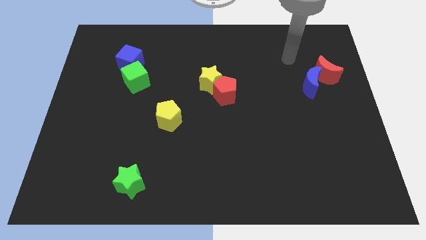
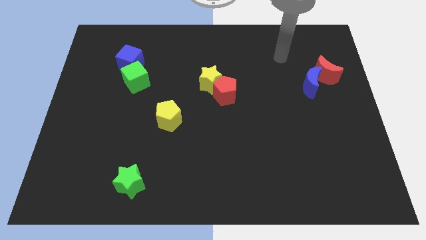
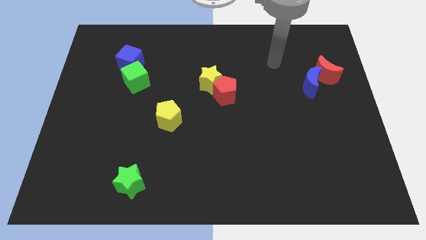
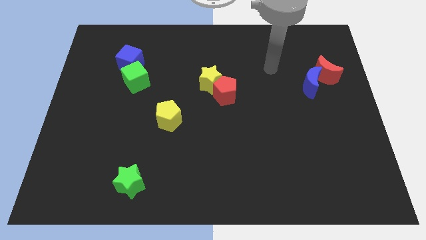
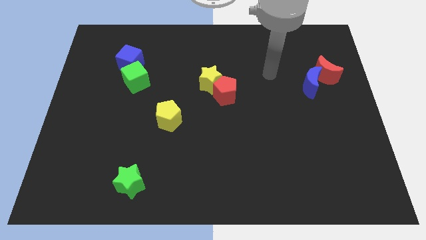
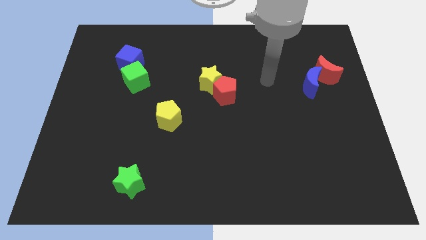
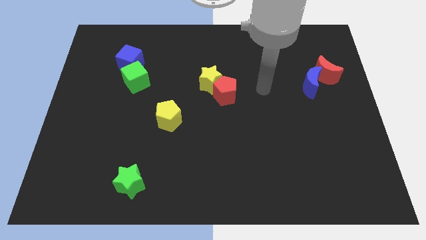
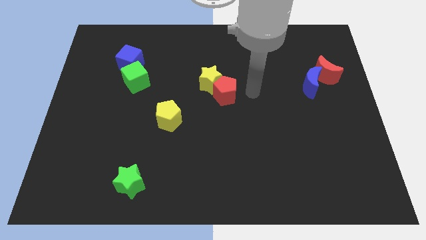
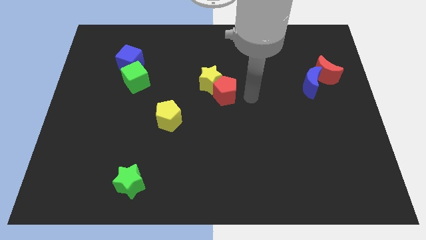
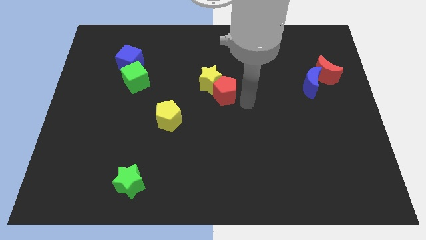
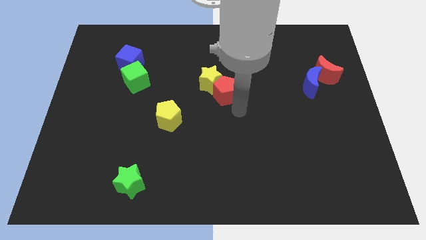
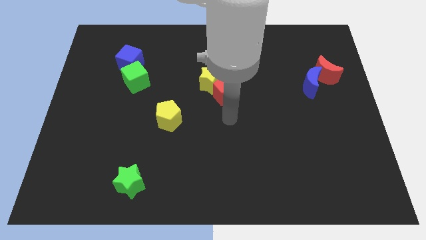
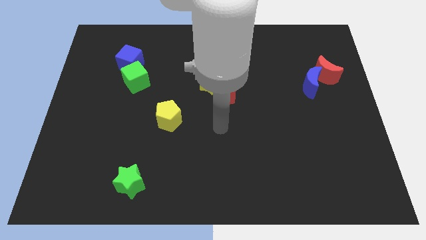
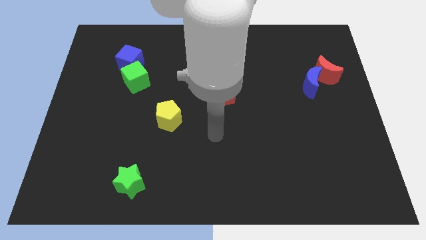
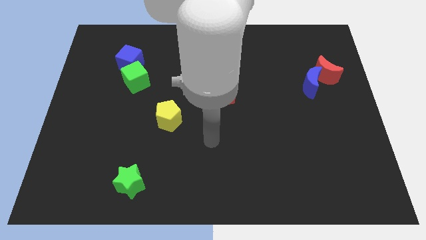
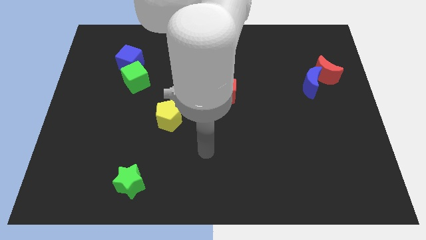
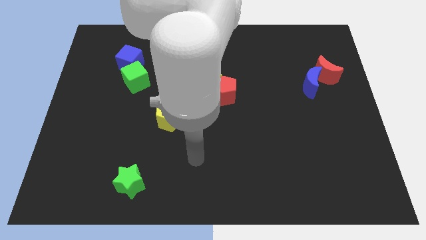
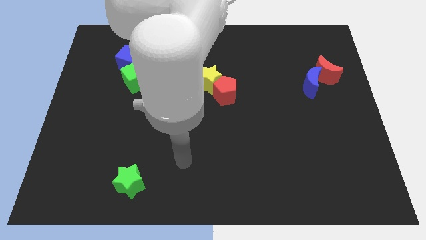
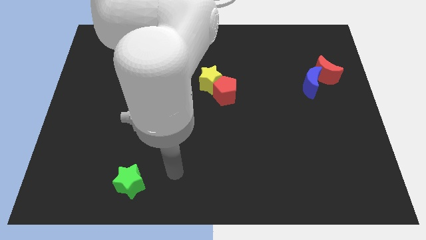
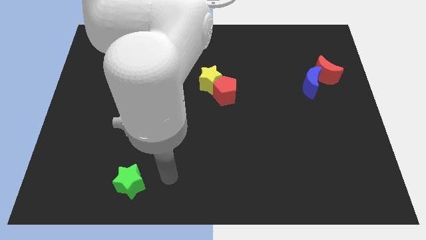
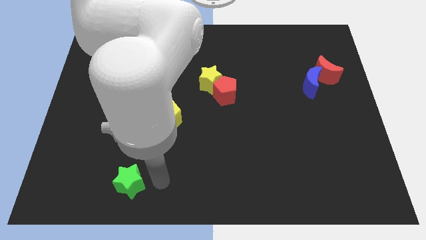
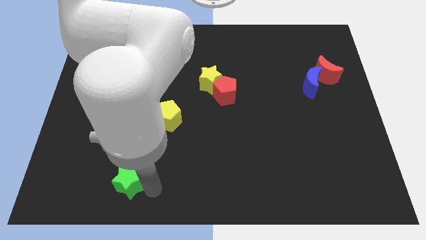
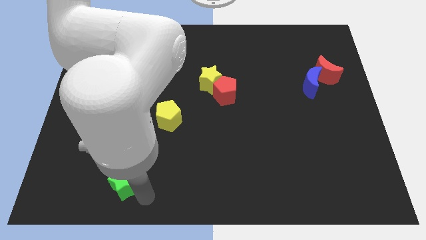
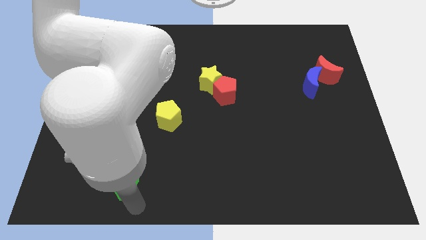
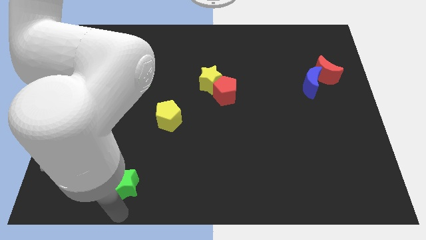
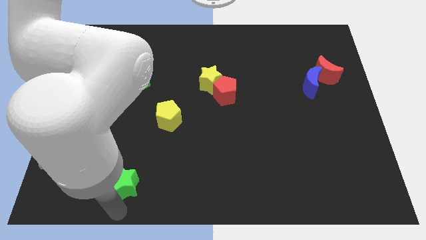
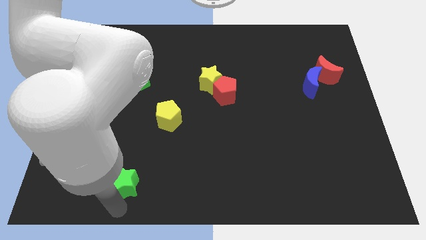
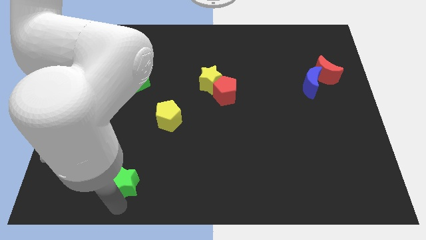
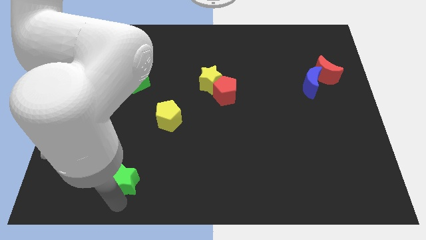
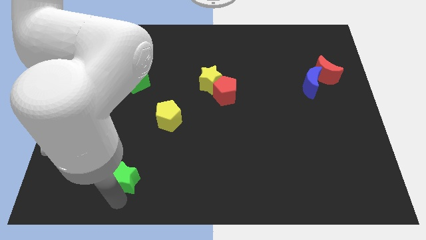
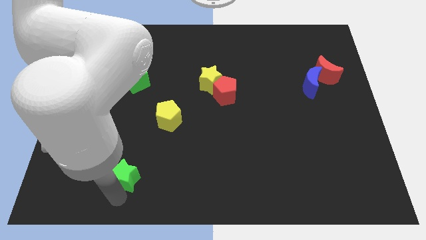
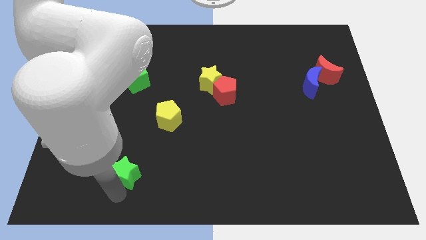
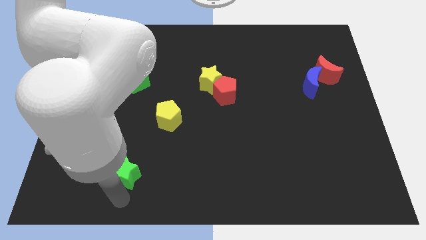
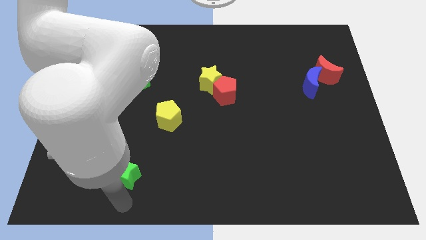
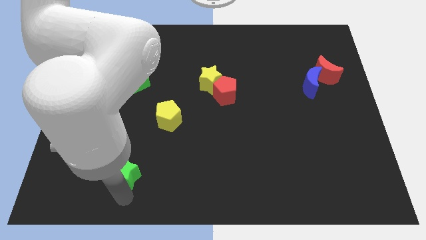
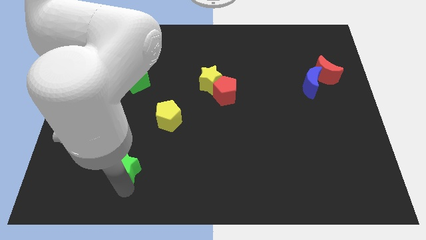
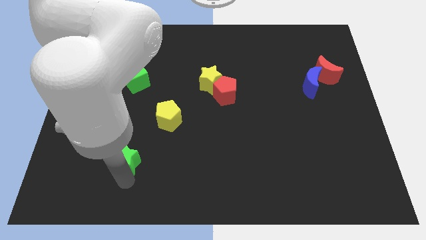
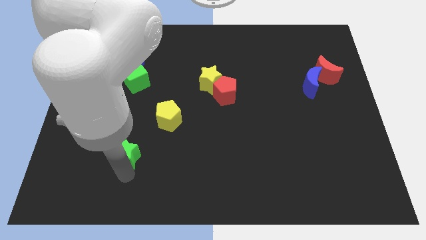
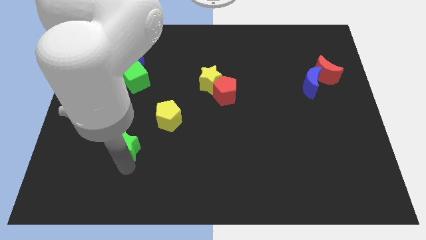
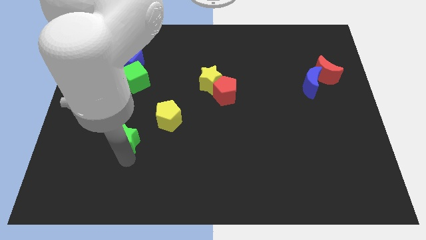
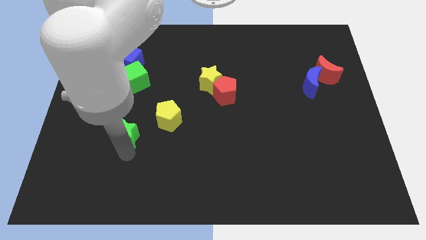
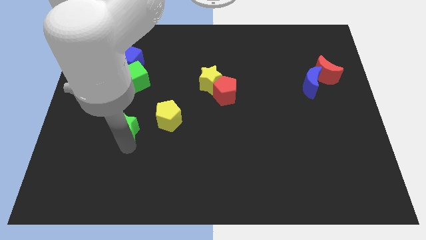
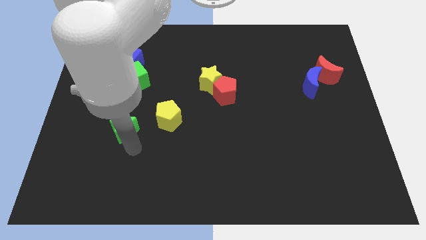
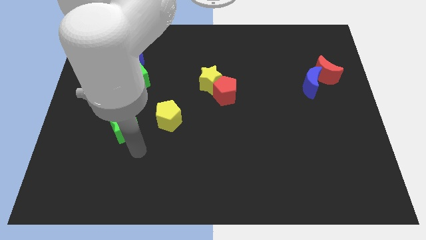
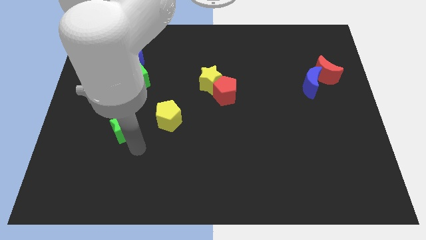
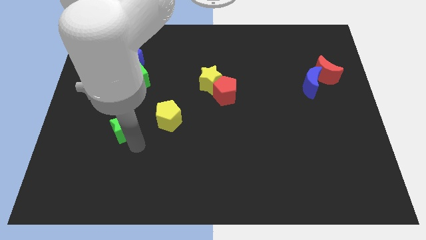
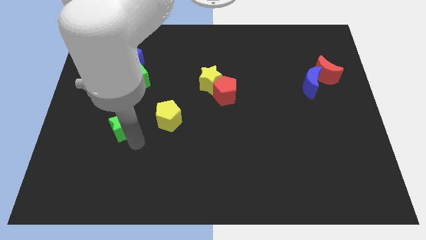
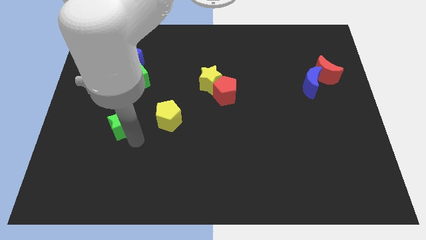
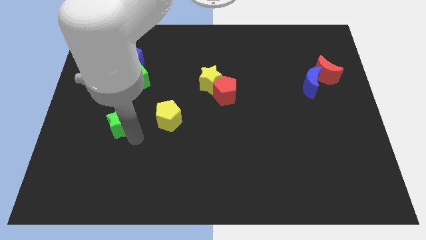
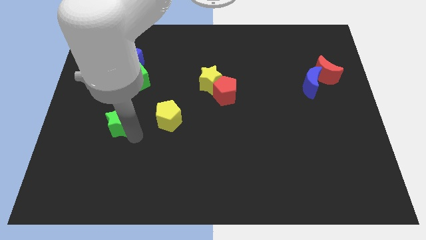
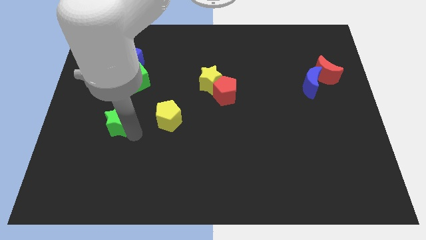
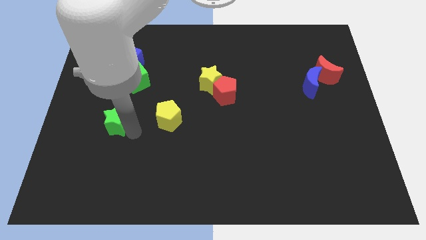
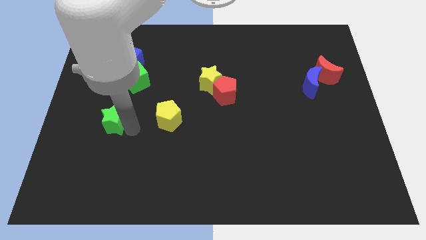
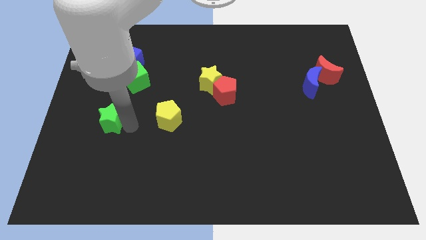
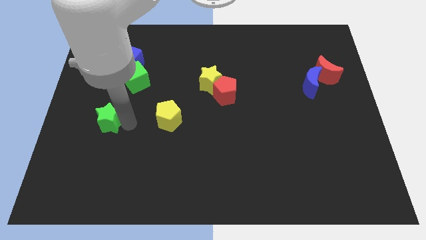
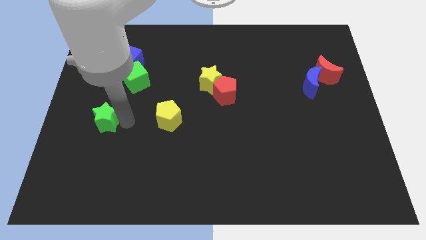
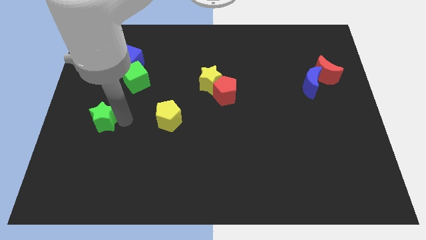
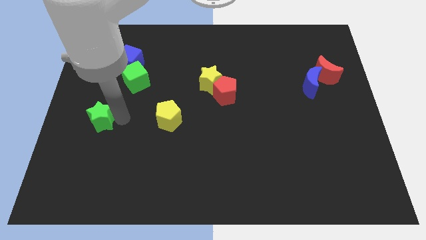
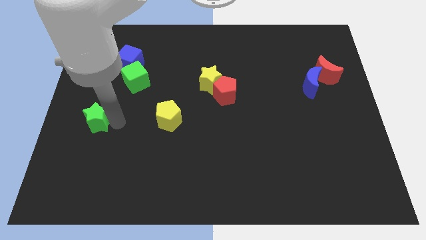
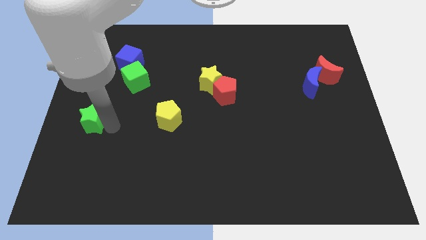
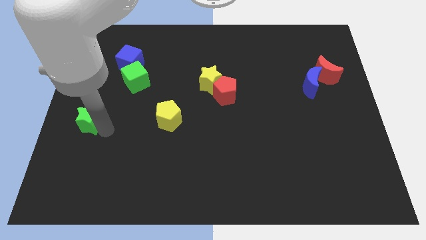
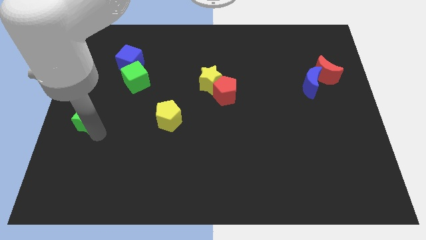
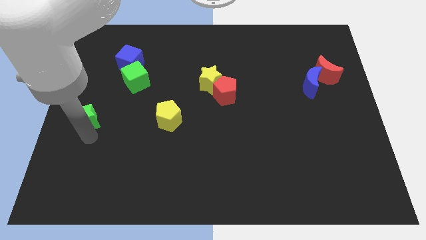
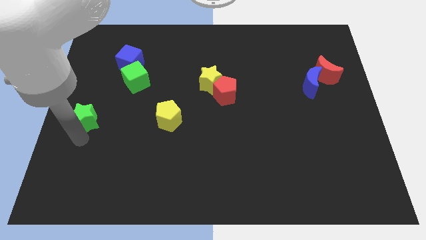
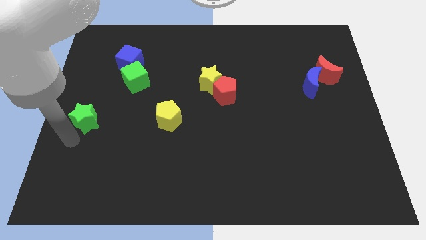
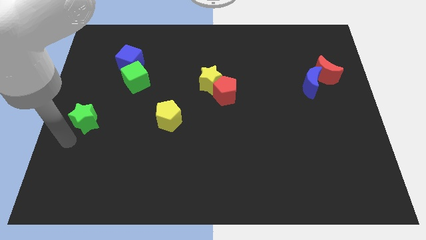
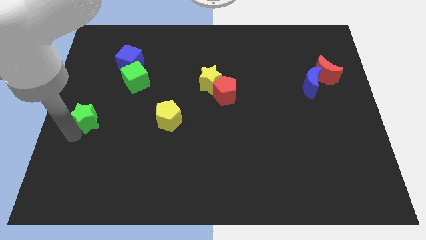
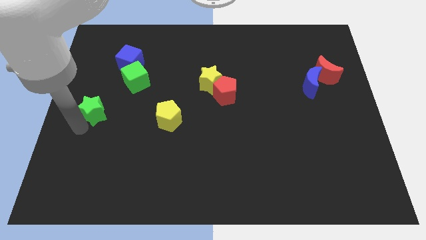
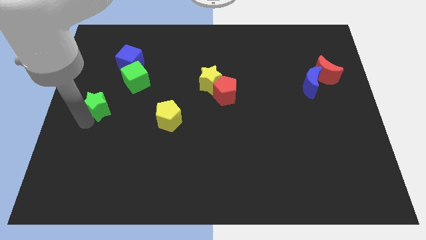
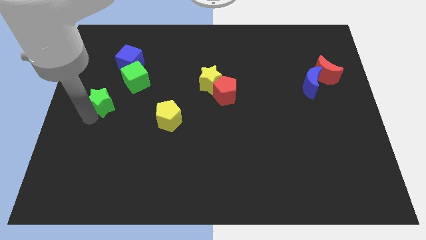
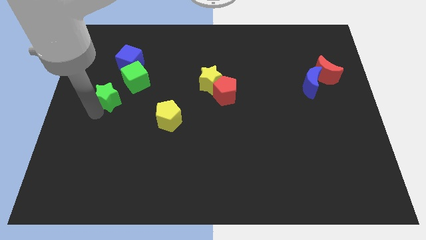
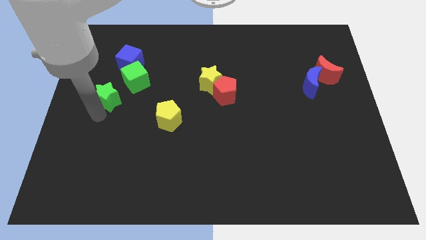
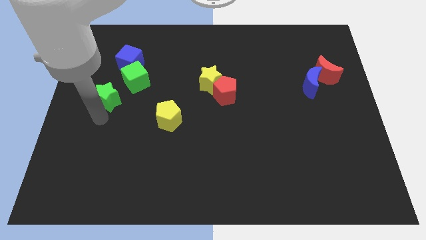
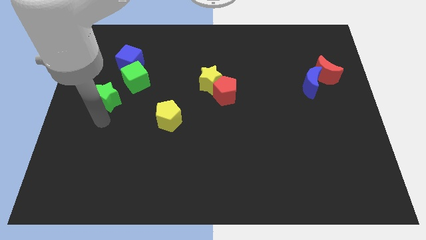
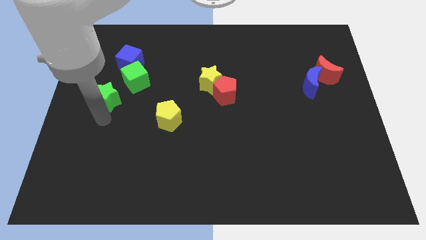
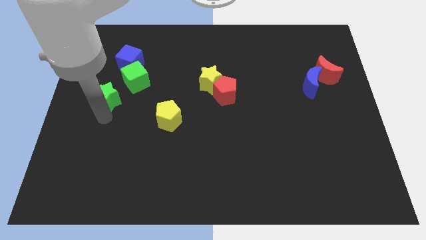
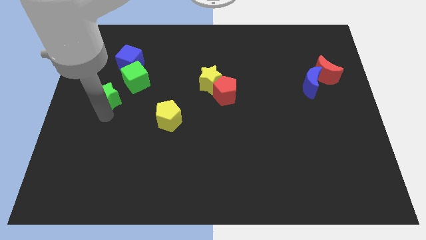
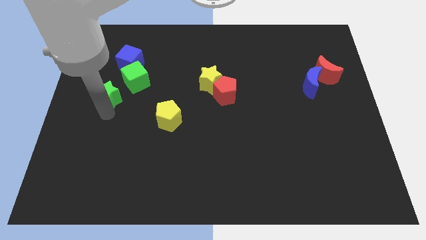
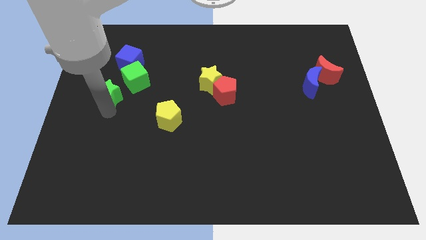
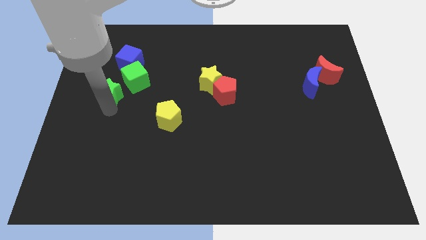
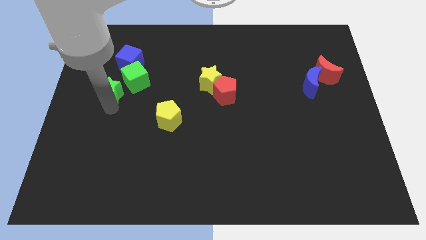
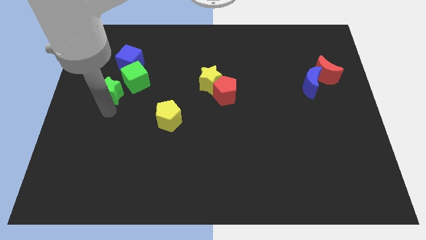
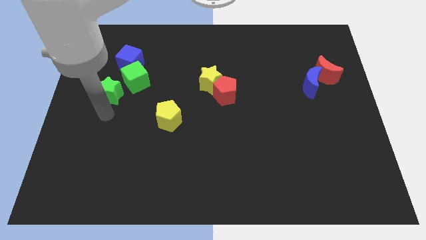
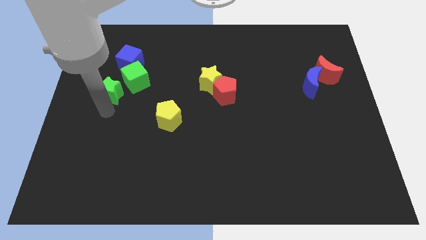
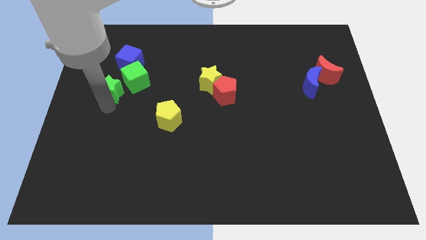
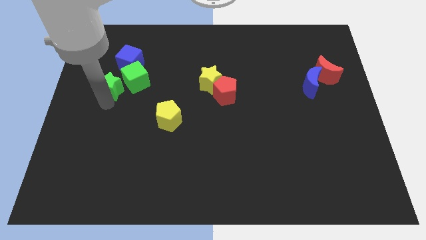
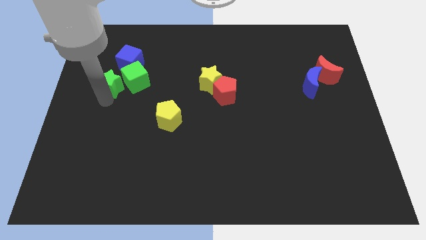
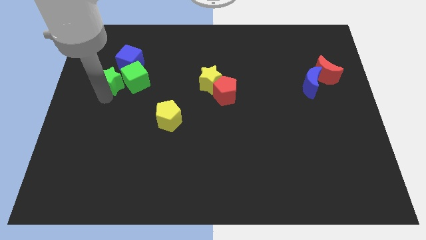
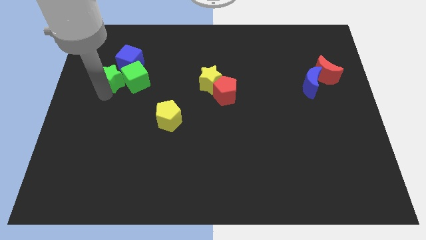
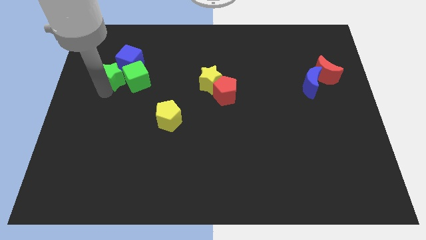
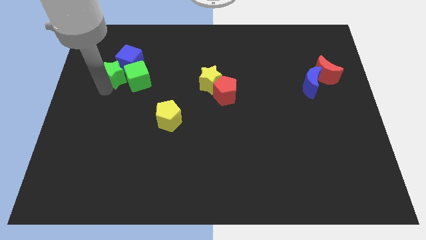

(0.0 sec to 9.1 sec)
push the green star towards the blue cube
